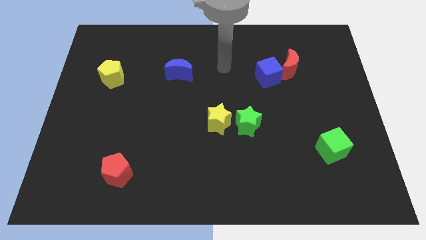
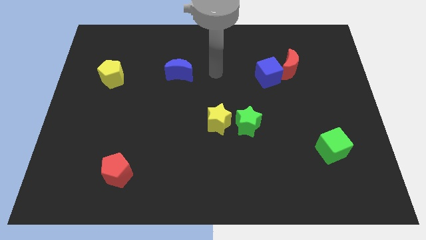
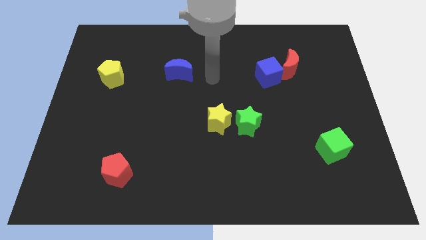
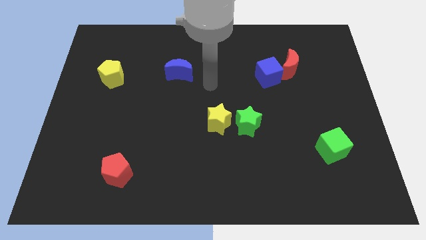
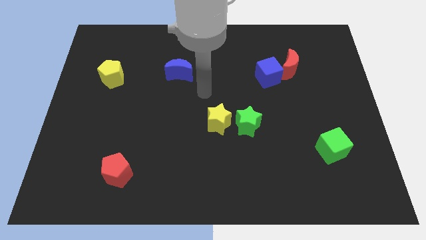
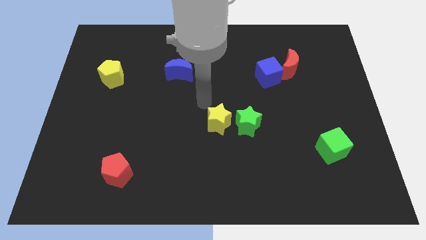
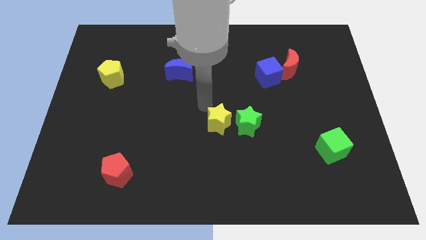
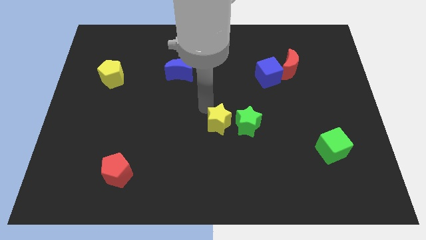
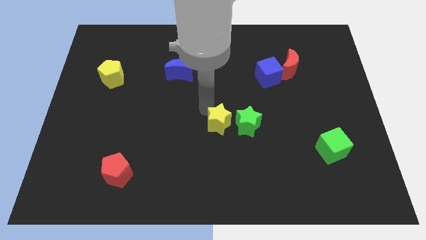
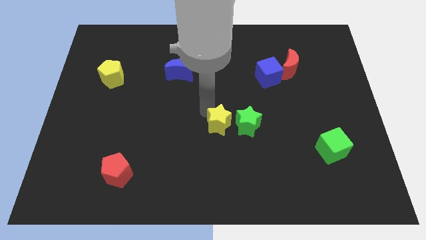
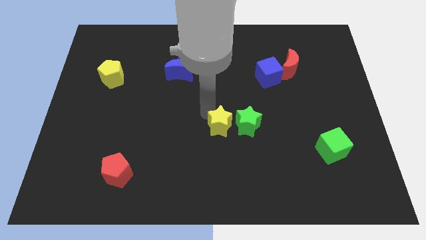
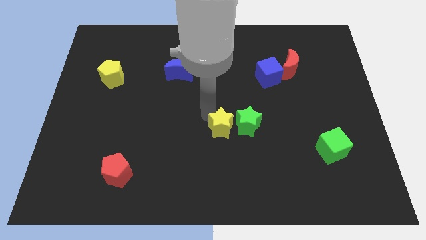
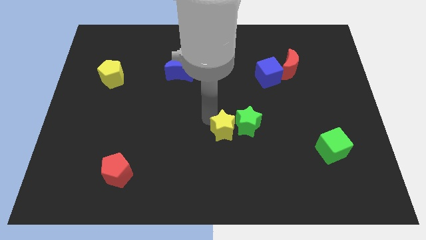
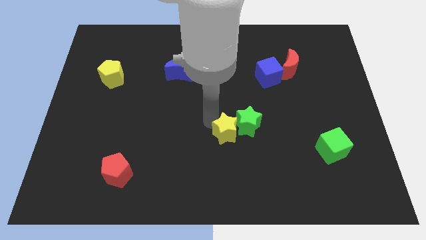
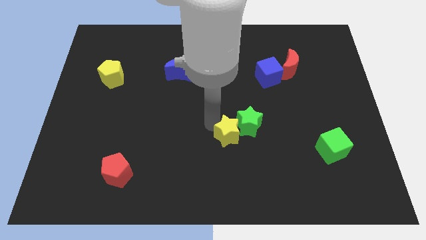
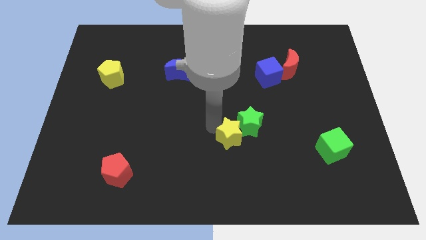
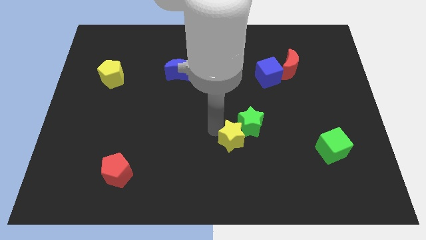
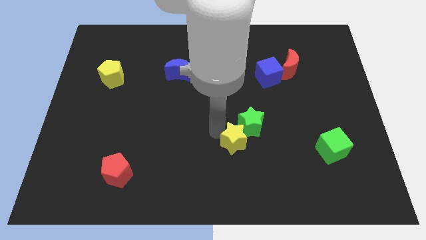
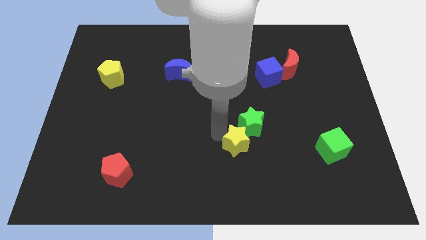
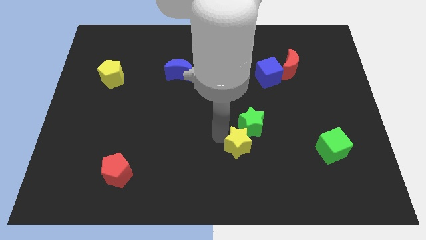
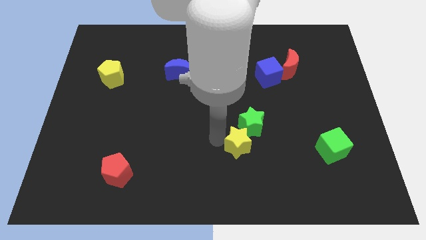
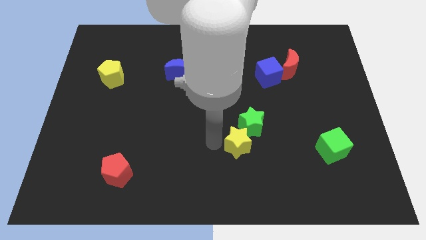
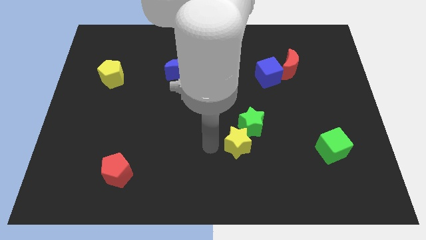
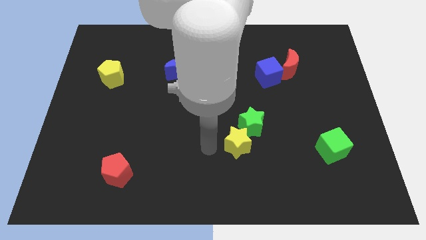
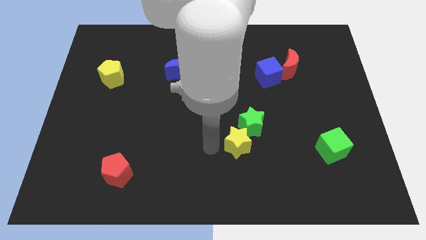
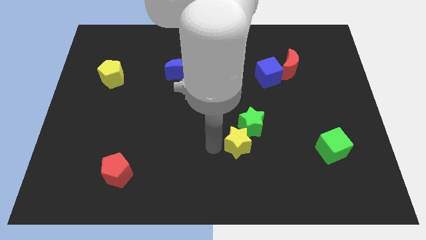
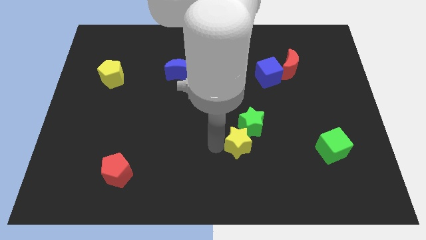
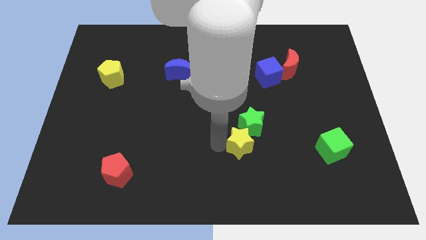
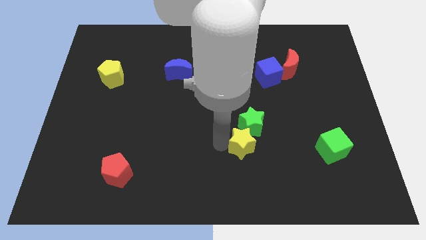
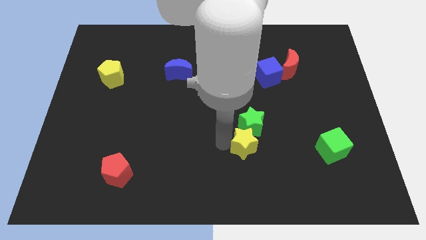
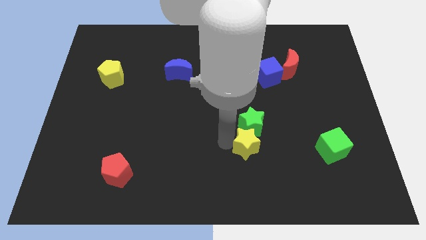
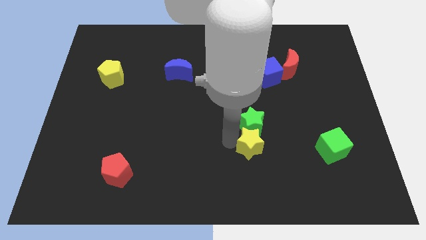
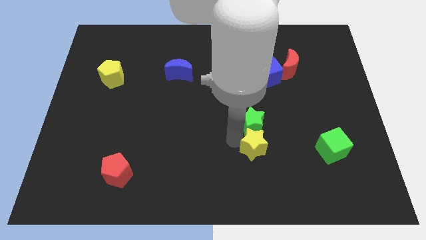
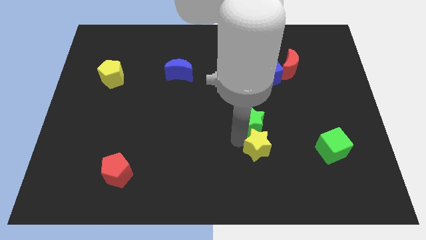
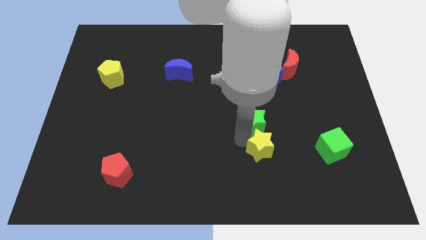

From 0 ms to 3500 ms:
slide the yellow star a little right

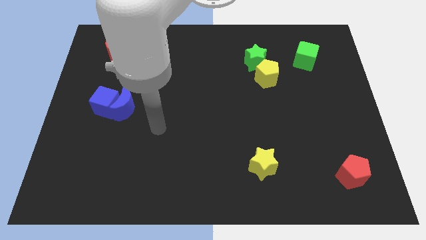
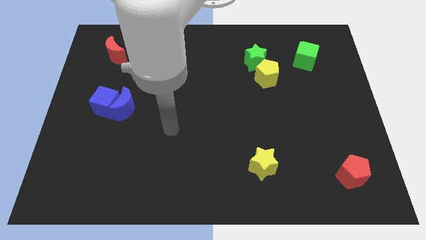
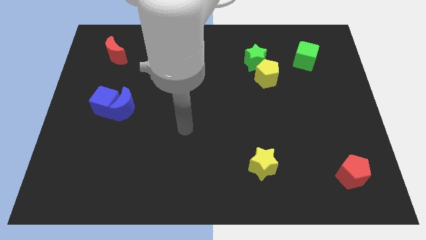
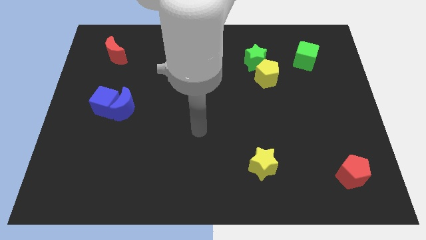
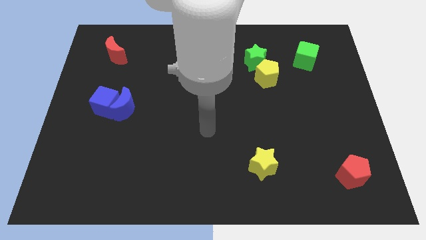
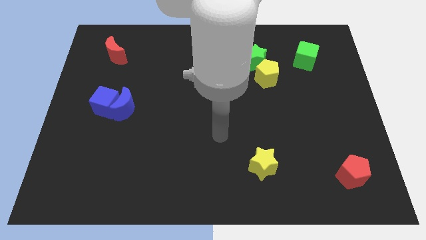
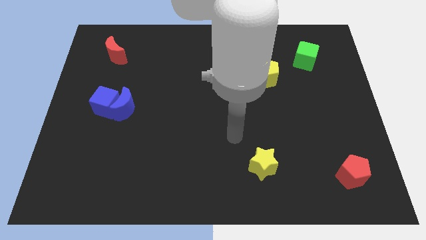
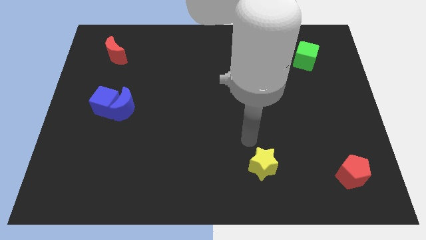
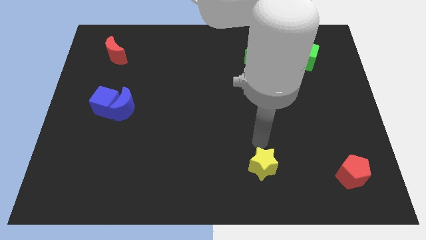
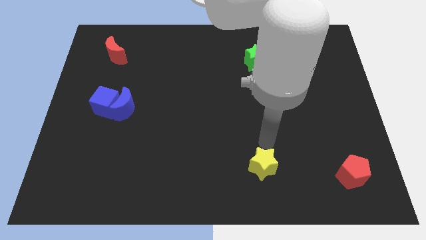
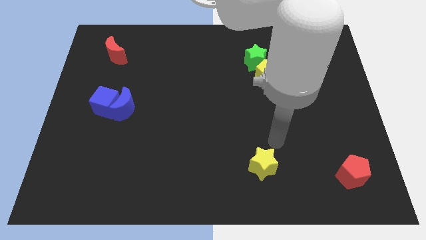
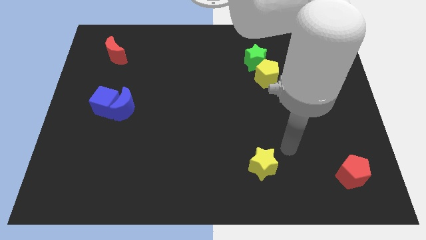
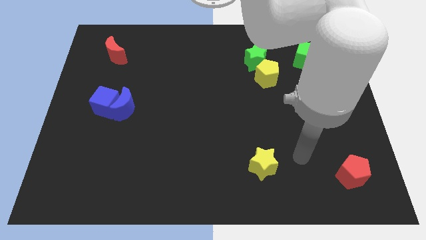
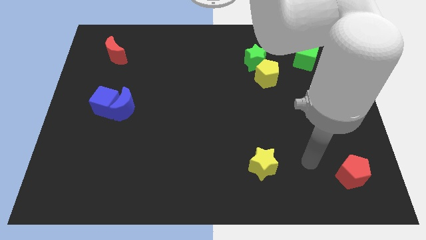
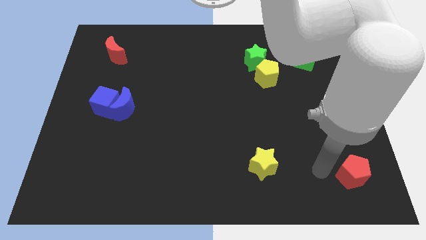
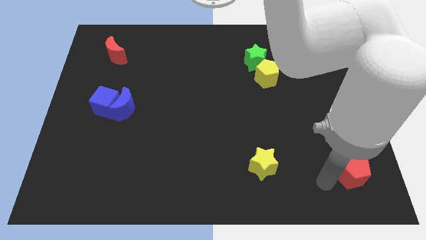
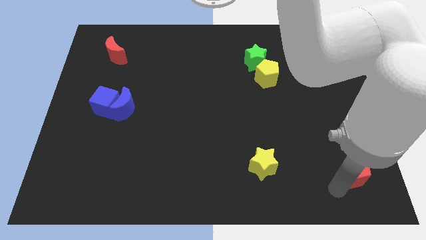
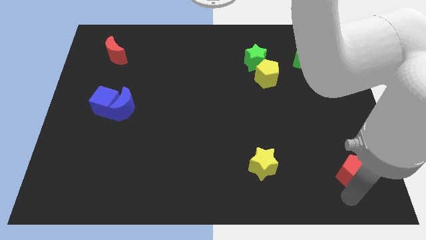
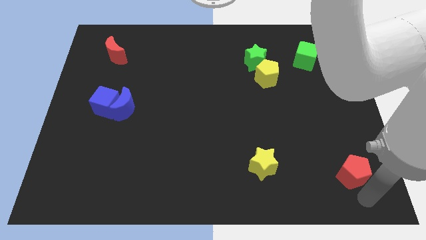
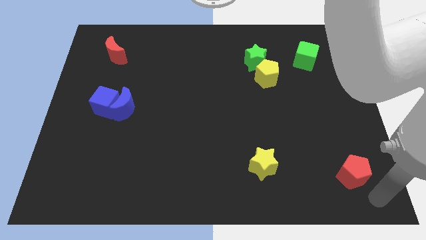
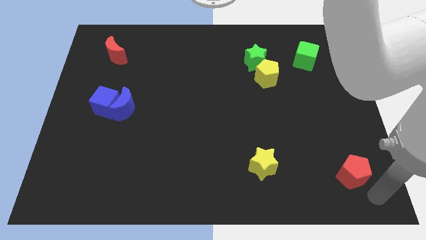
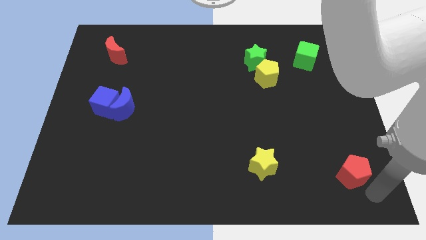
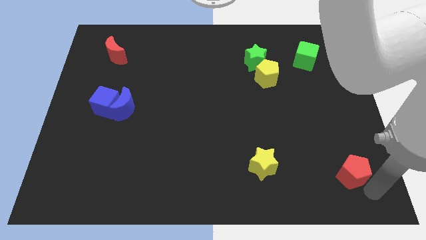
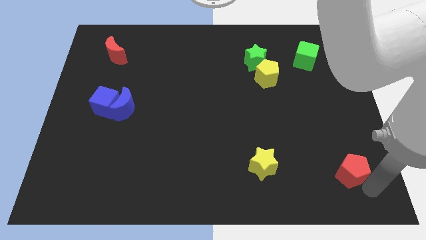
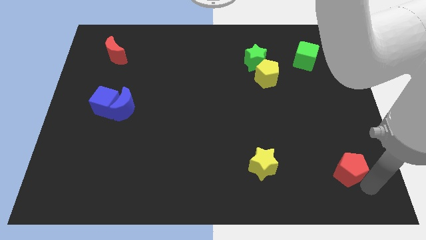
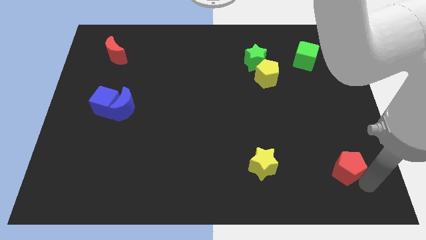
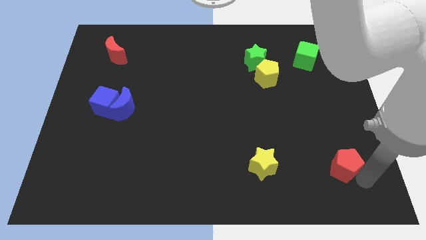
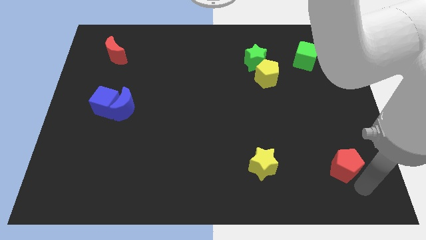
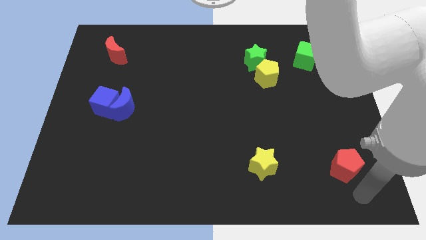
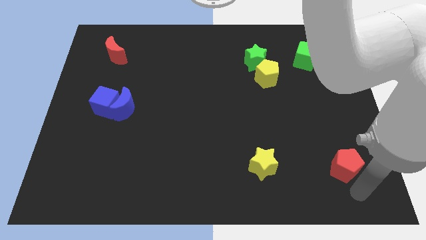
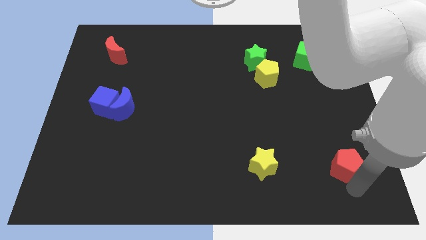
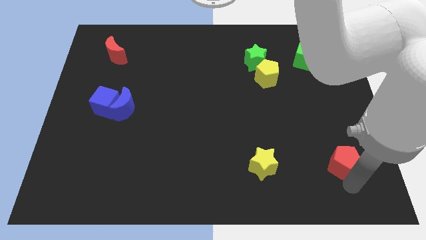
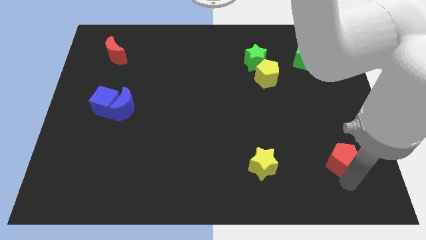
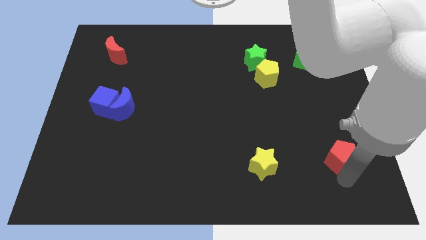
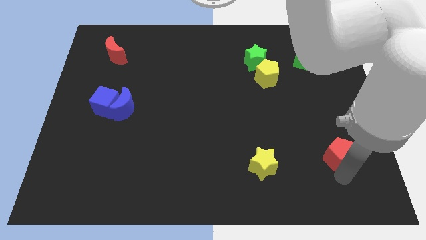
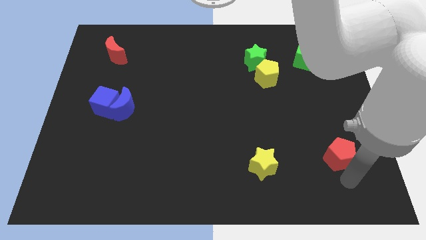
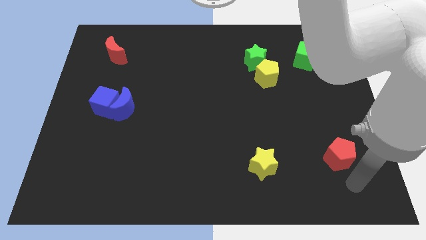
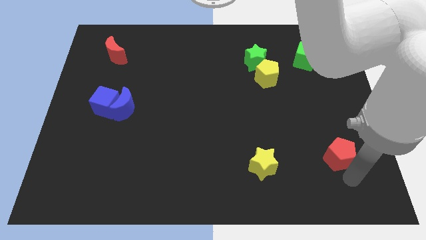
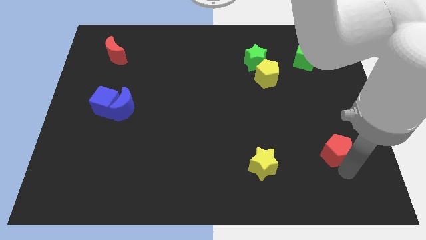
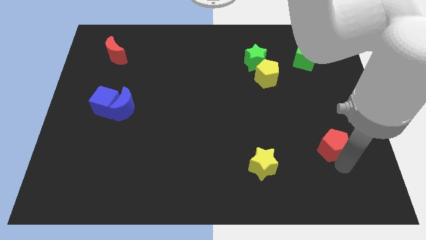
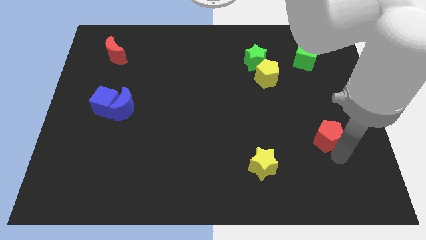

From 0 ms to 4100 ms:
slightly move the red pentagon diagonally upwards and left

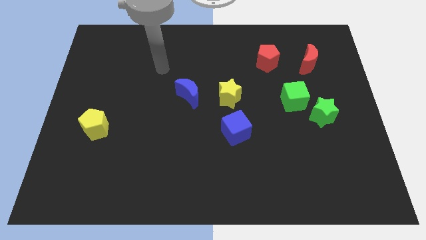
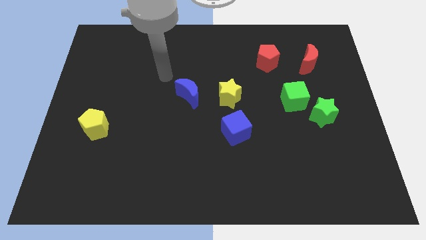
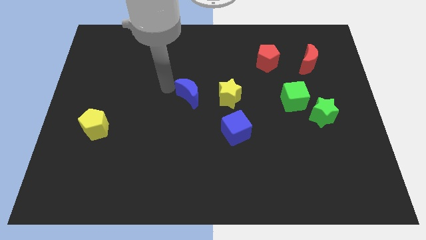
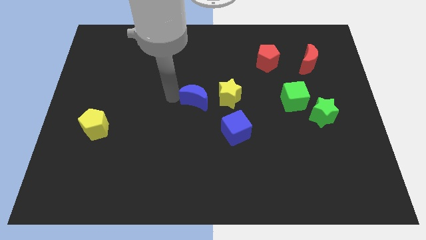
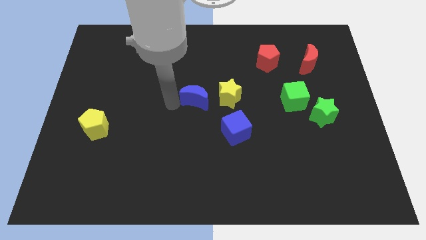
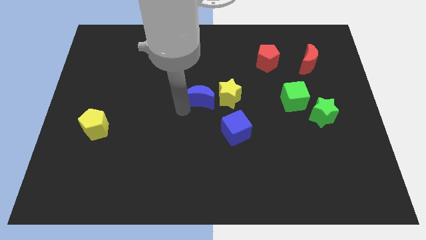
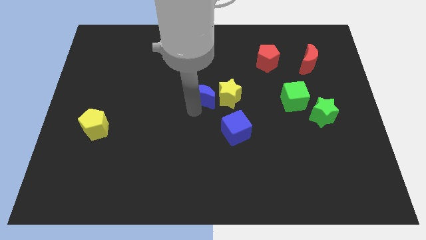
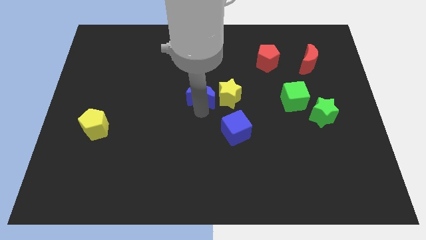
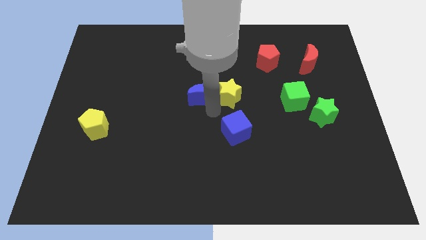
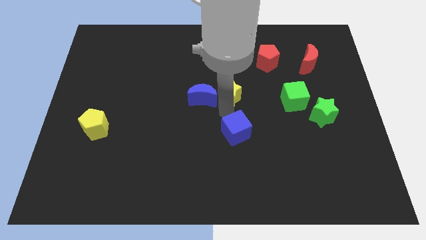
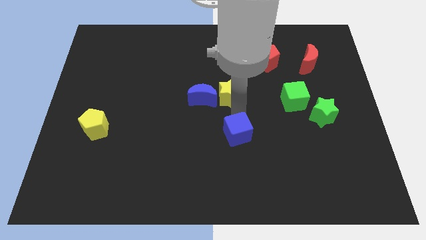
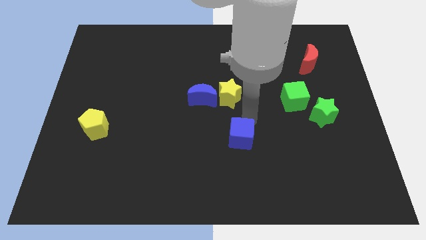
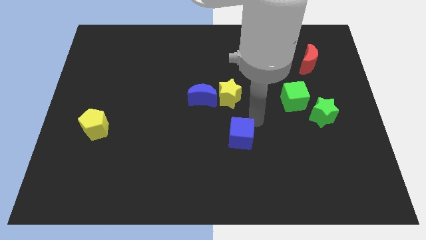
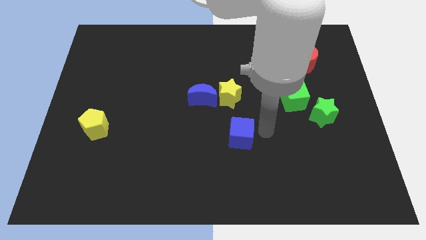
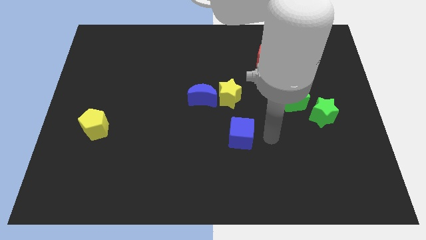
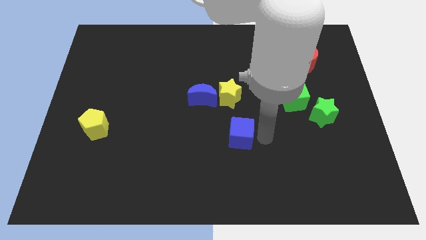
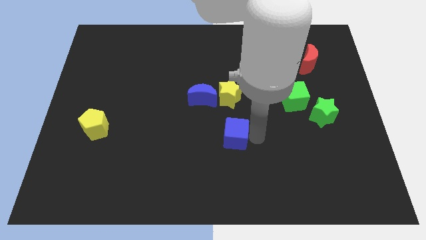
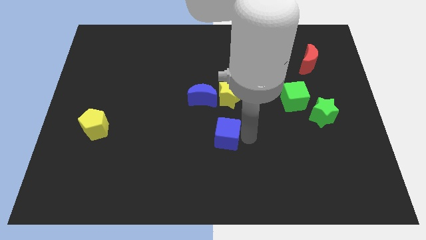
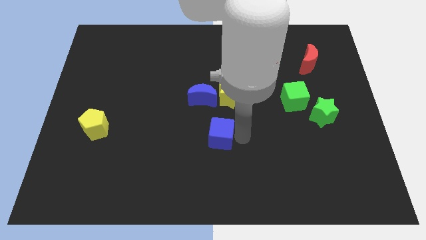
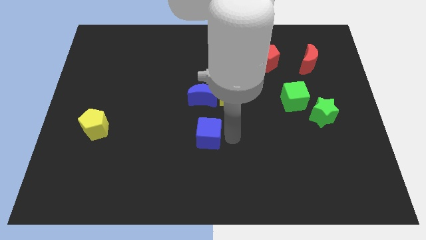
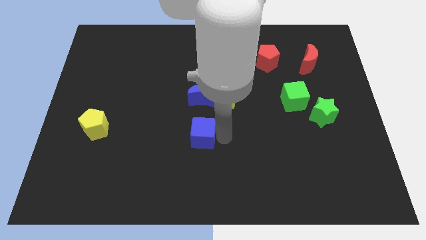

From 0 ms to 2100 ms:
slightly push the blue cube left
